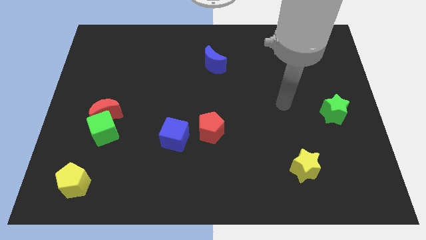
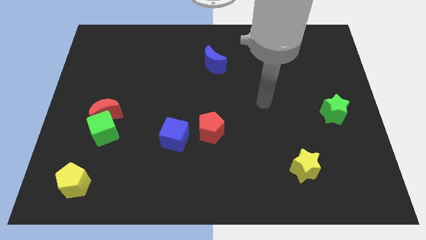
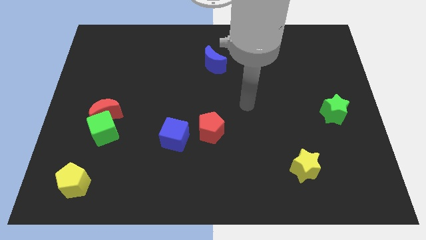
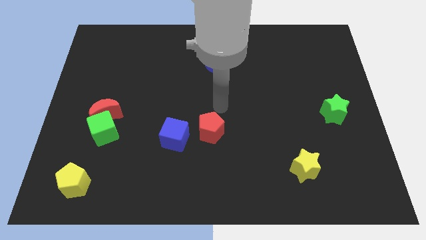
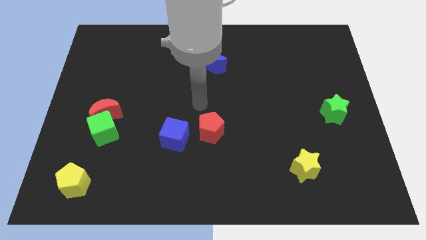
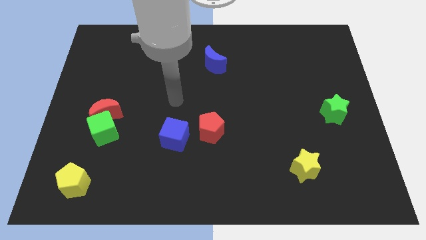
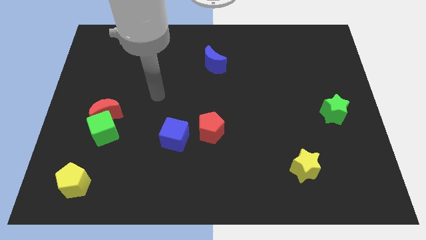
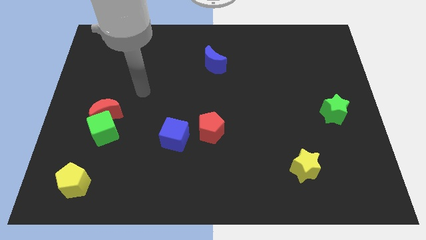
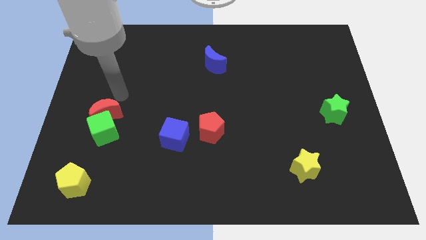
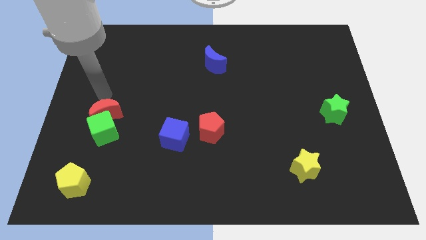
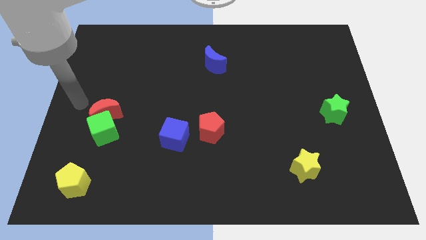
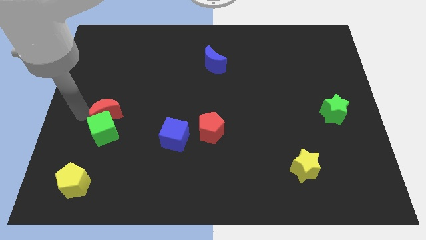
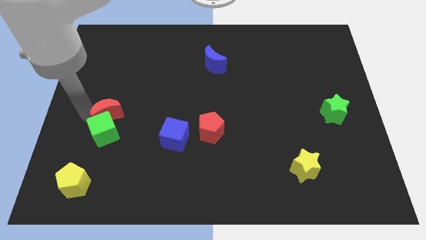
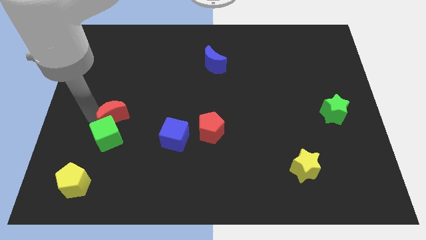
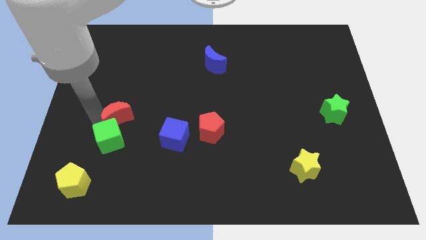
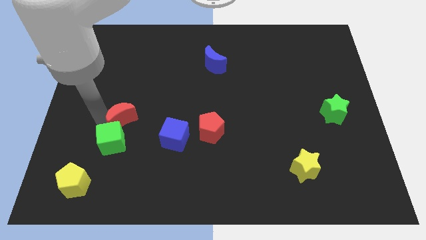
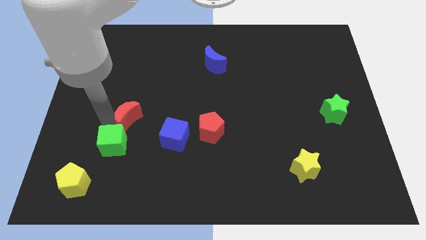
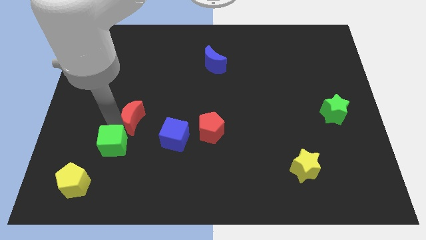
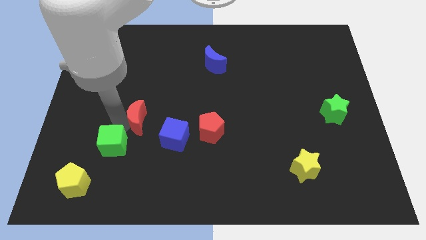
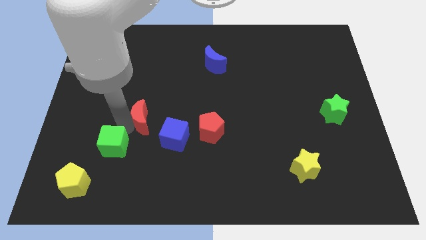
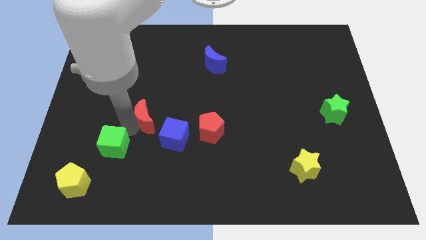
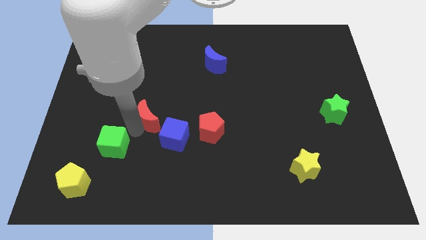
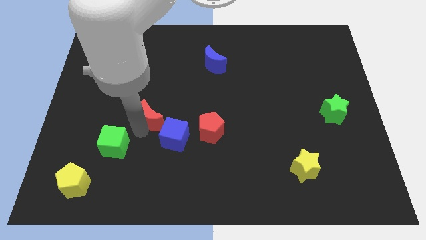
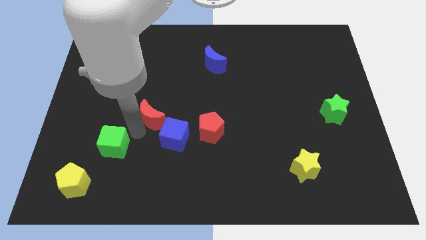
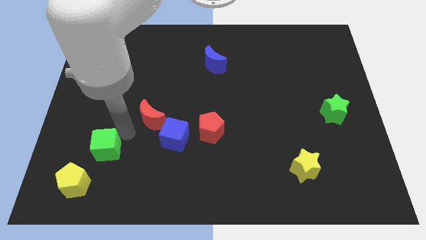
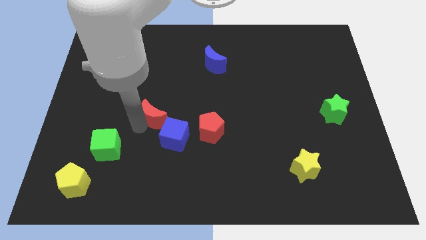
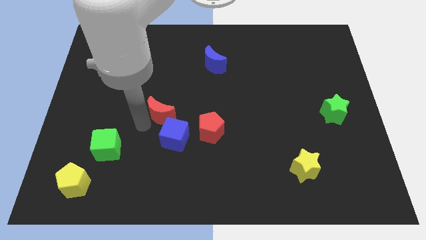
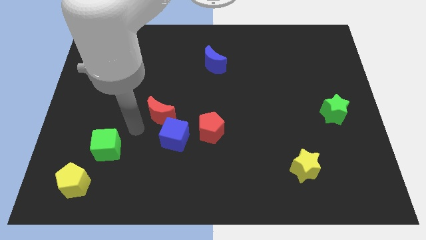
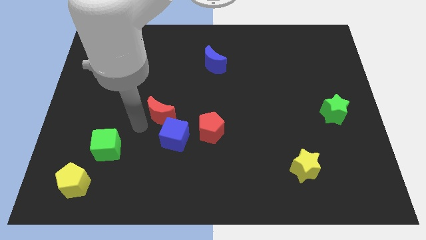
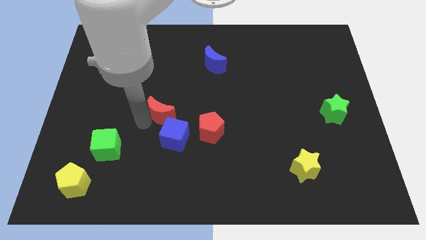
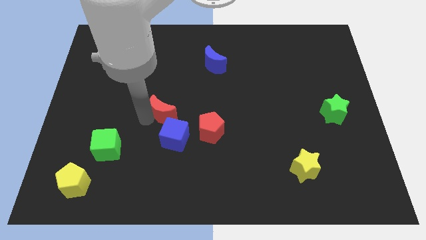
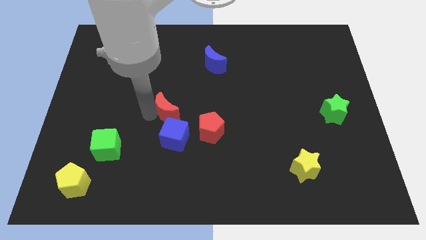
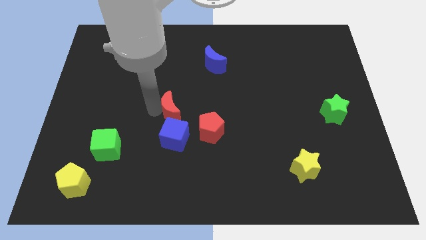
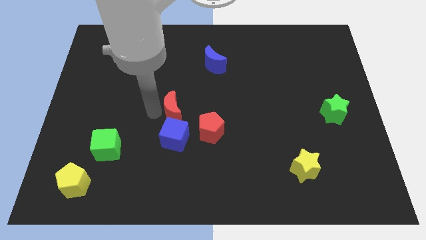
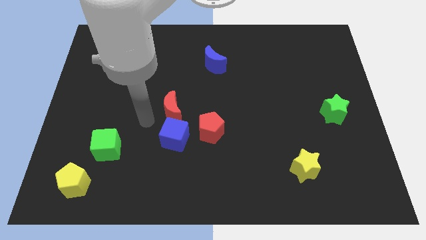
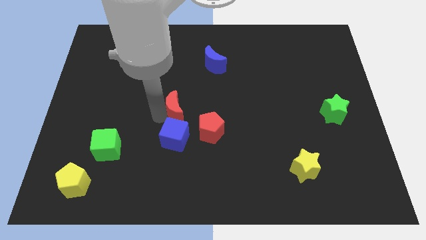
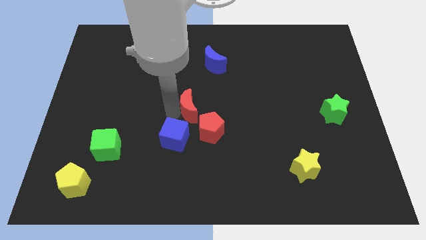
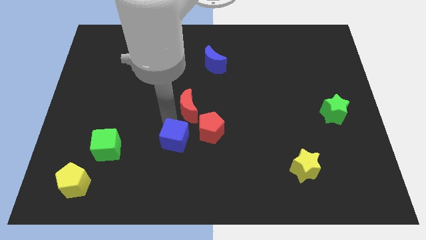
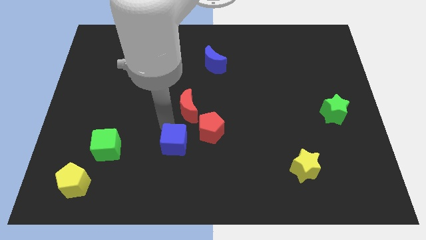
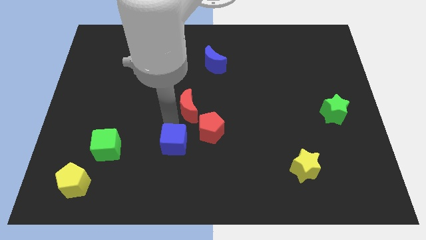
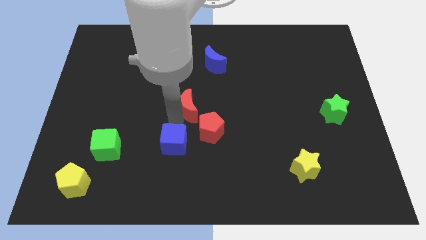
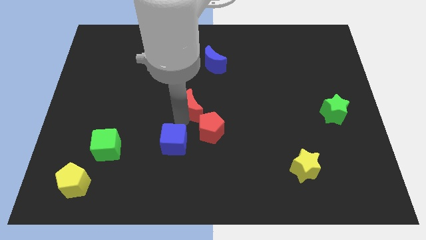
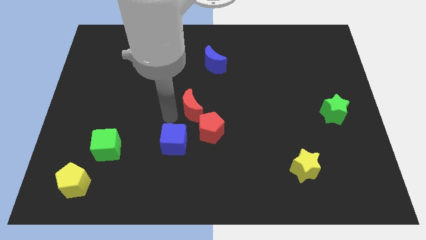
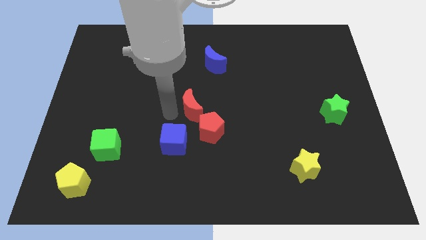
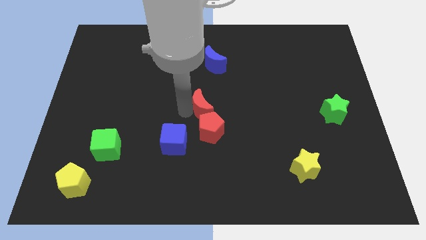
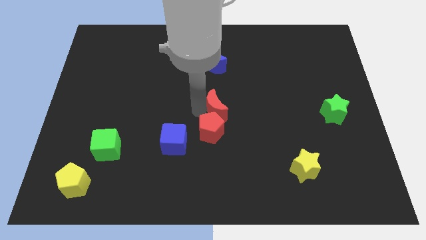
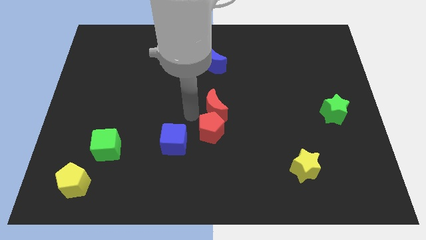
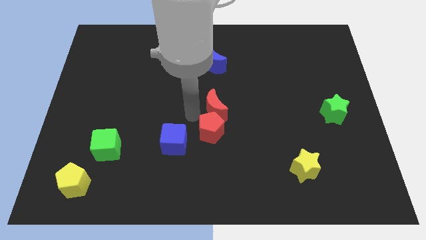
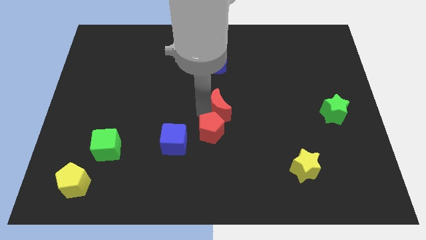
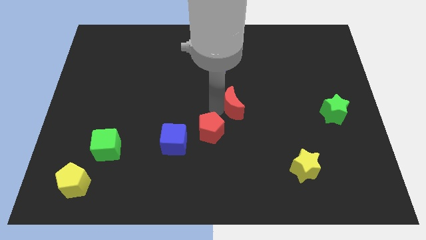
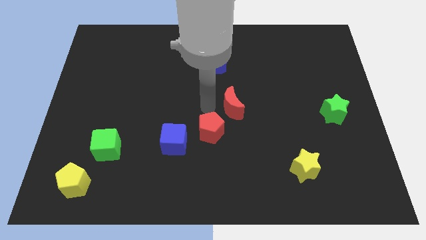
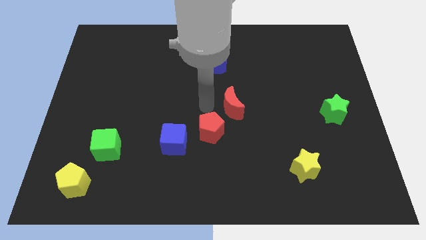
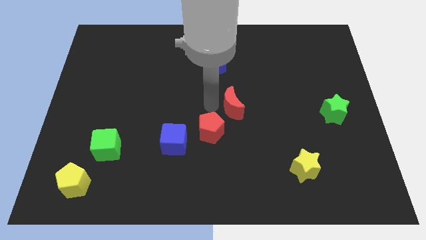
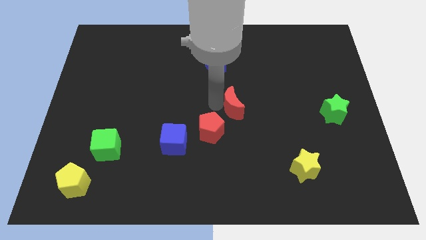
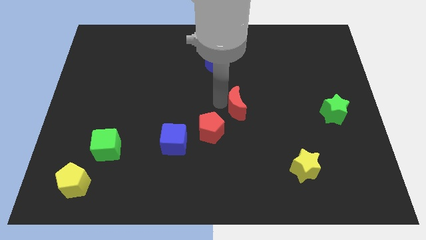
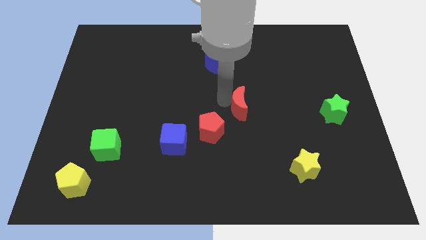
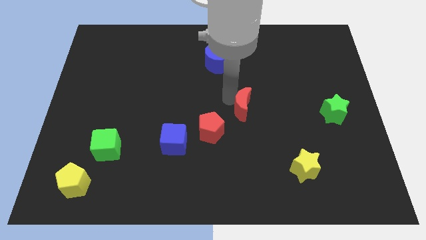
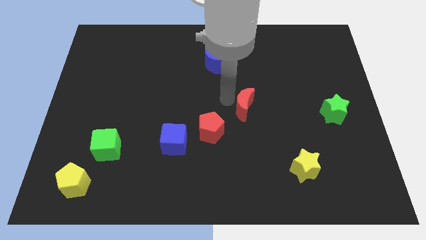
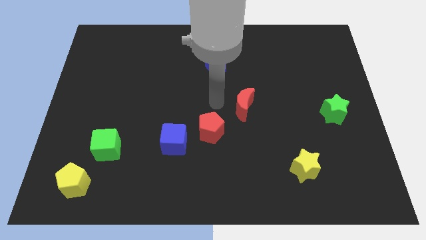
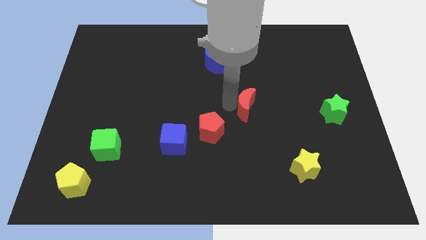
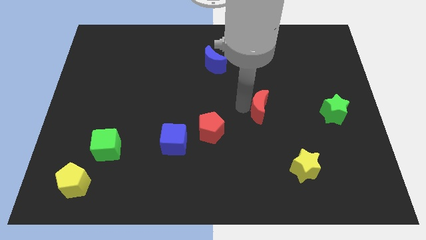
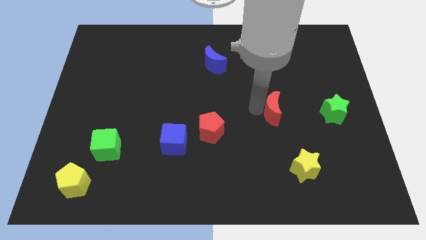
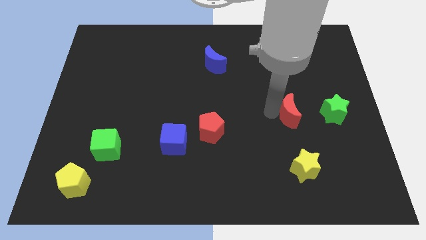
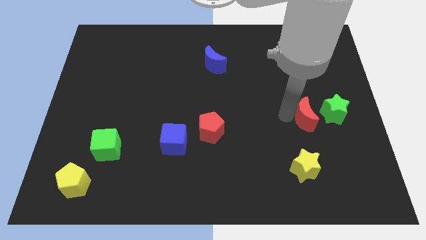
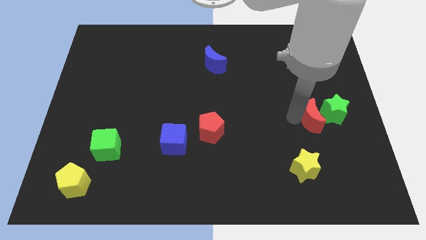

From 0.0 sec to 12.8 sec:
put the red moon close to the green star

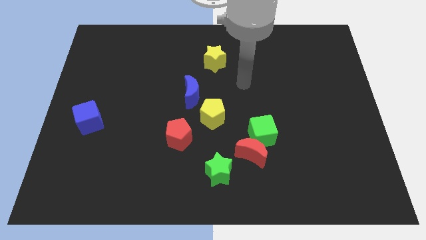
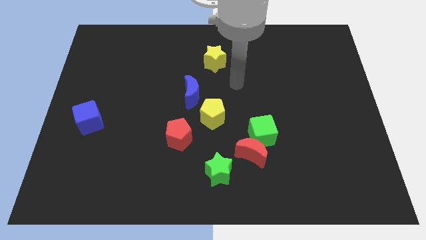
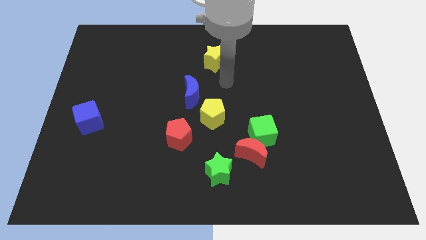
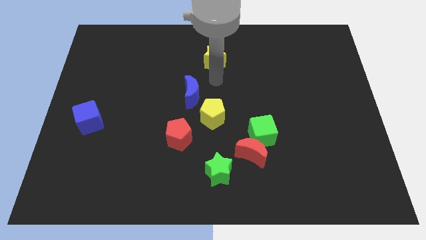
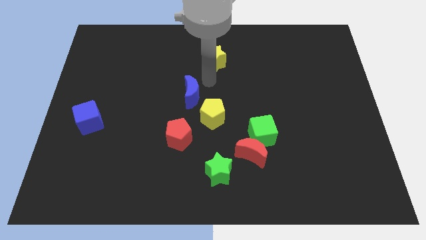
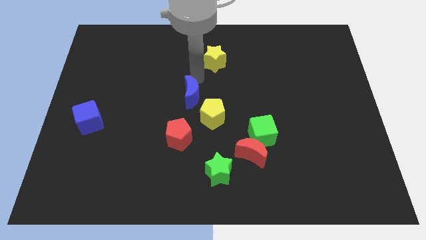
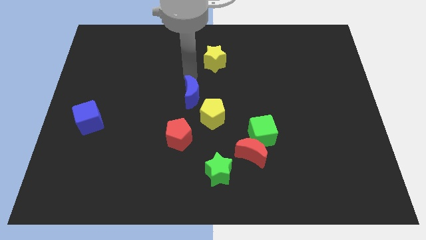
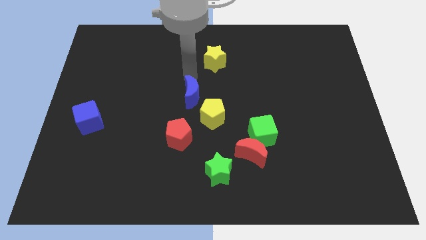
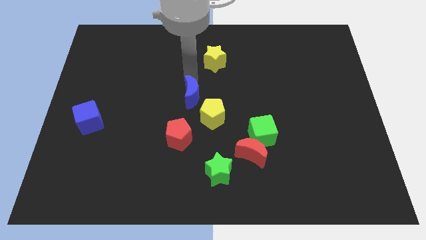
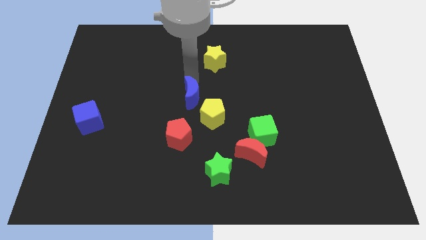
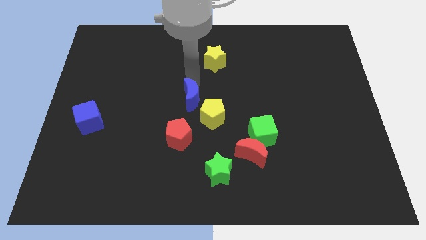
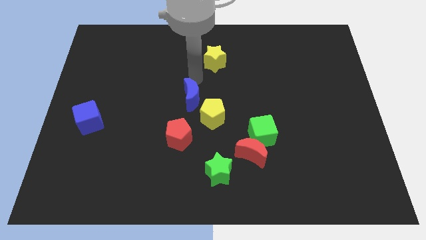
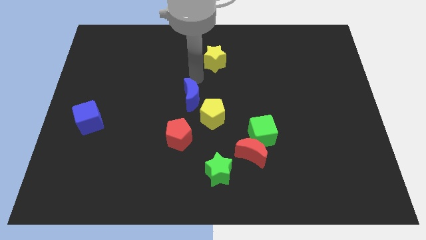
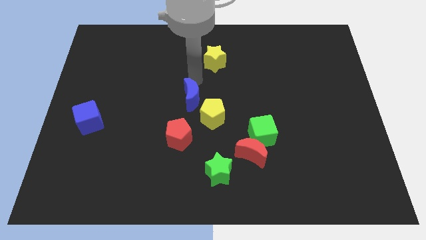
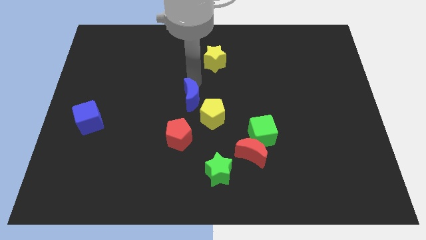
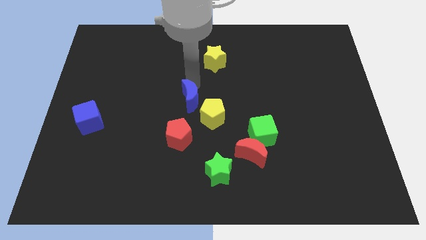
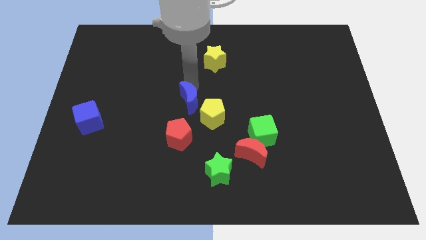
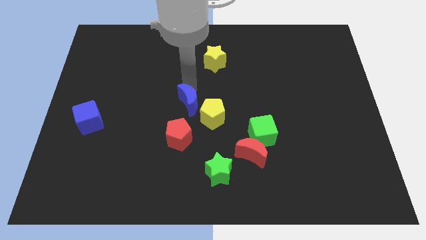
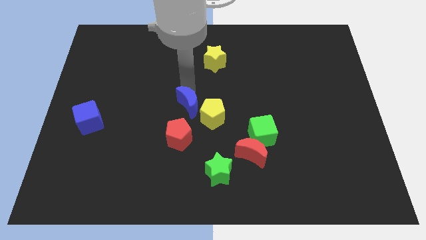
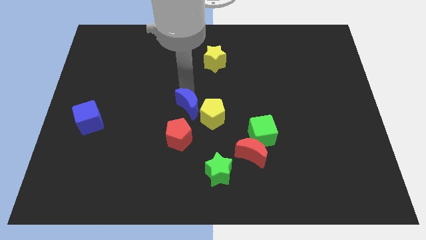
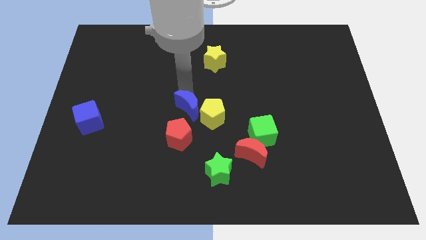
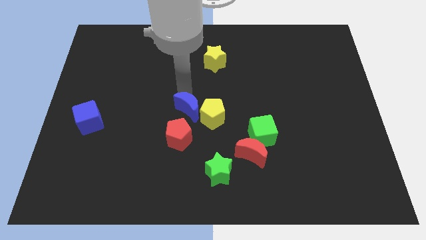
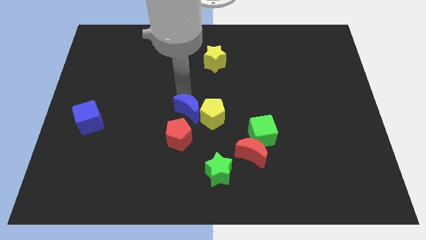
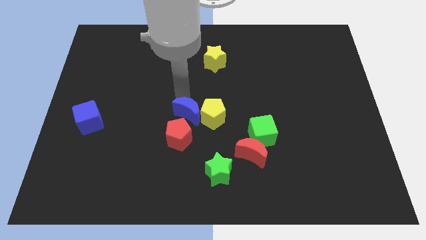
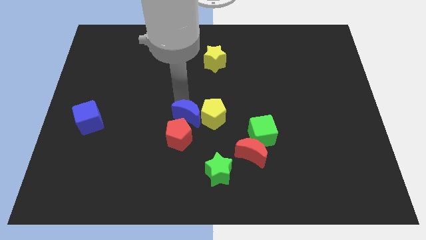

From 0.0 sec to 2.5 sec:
move the blue moon next to the red pentagon
